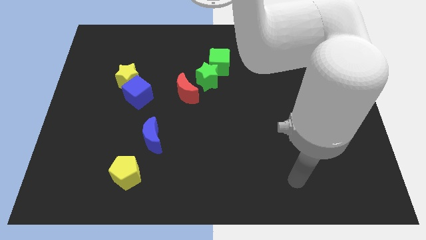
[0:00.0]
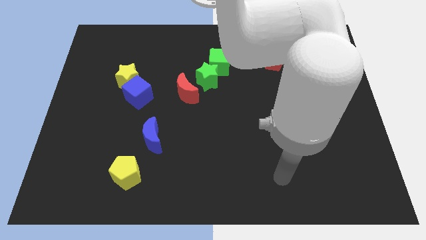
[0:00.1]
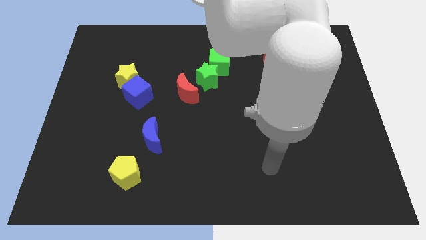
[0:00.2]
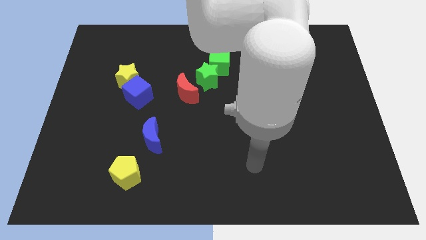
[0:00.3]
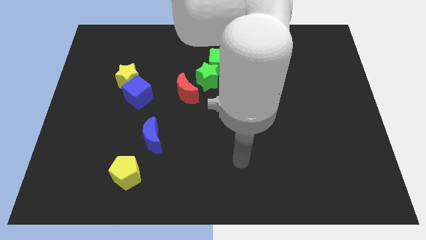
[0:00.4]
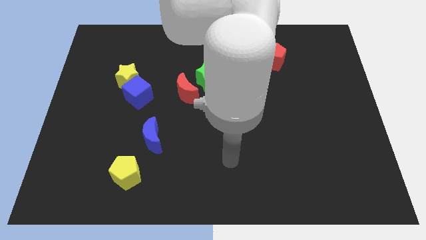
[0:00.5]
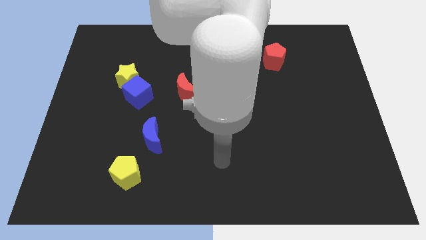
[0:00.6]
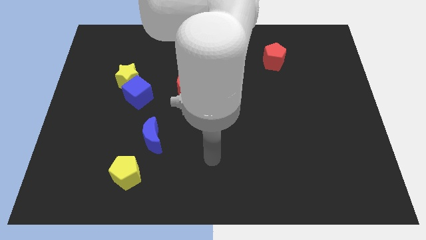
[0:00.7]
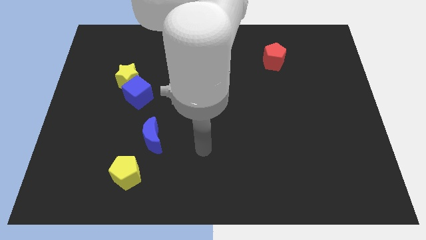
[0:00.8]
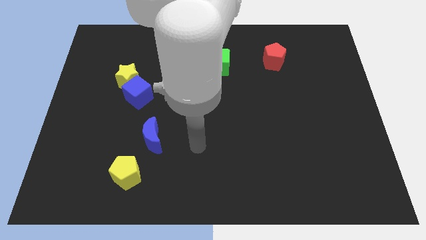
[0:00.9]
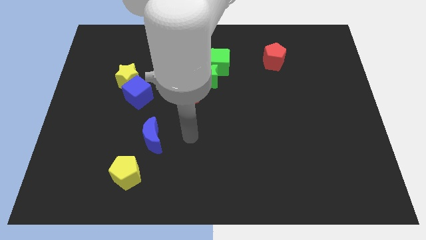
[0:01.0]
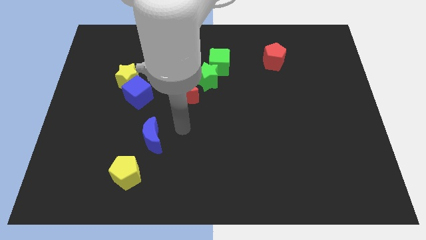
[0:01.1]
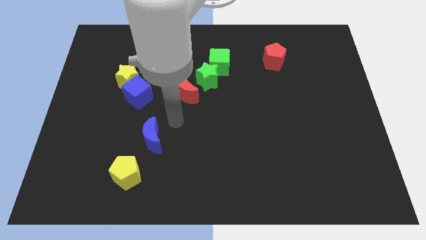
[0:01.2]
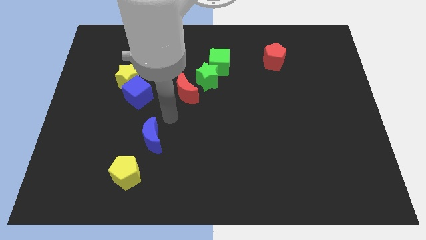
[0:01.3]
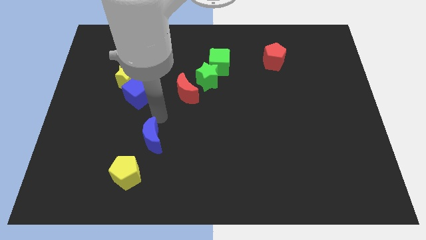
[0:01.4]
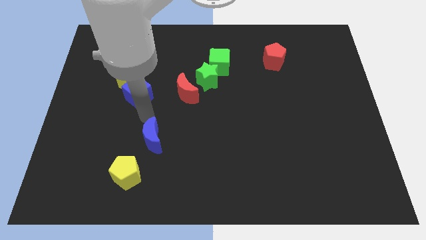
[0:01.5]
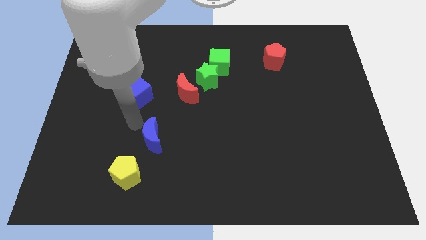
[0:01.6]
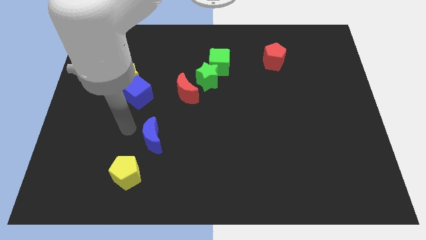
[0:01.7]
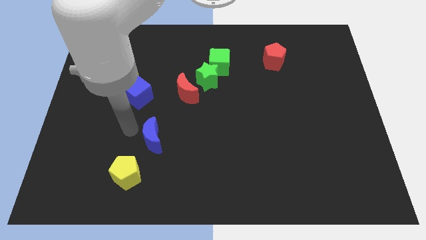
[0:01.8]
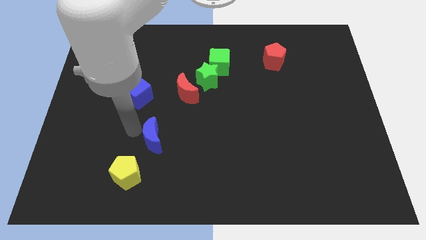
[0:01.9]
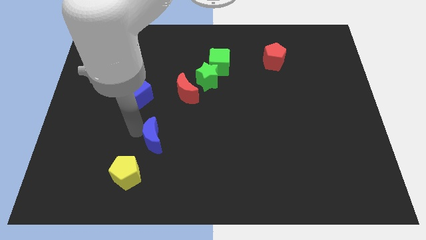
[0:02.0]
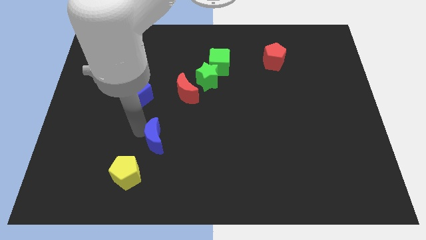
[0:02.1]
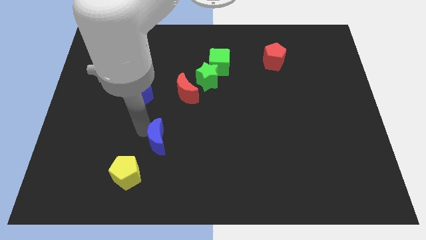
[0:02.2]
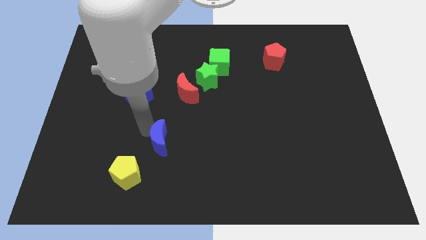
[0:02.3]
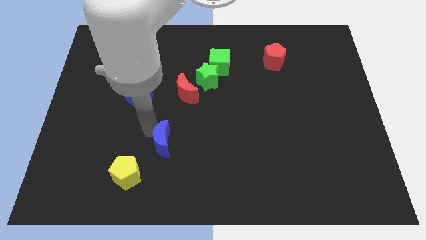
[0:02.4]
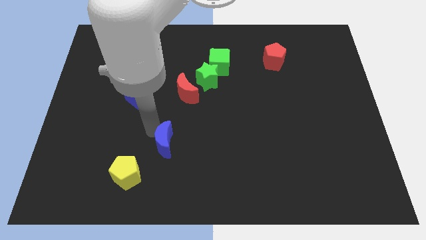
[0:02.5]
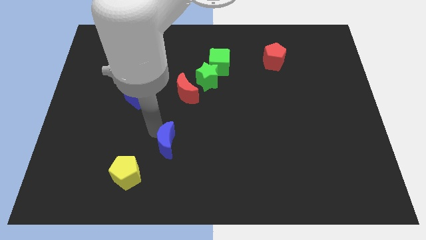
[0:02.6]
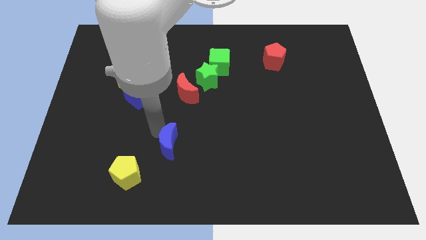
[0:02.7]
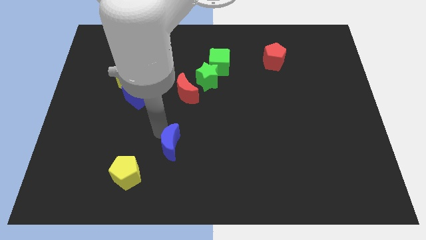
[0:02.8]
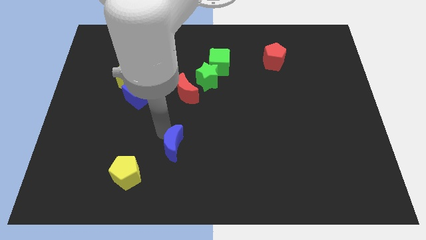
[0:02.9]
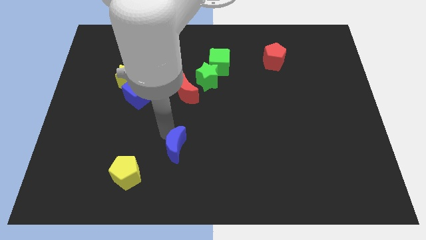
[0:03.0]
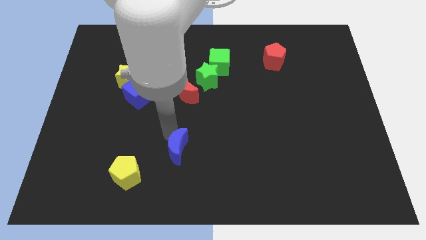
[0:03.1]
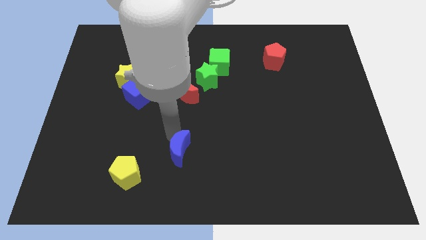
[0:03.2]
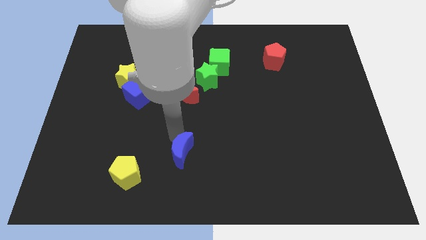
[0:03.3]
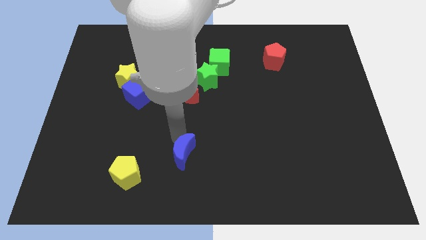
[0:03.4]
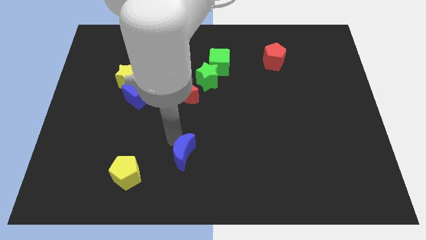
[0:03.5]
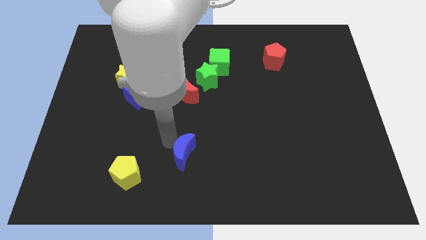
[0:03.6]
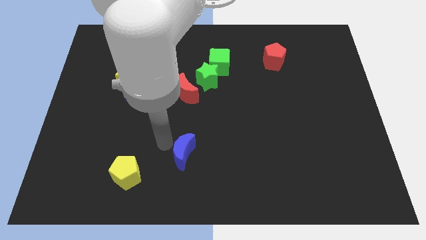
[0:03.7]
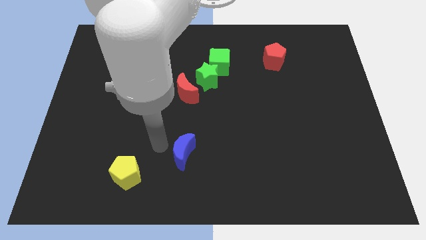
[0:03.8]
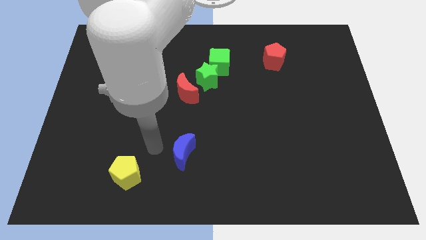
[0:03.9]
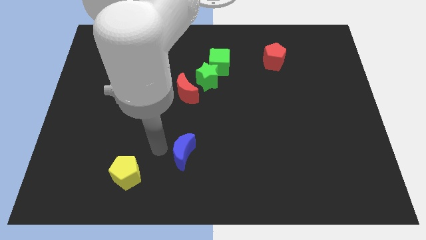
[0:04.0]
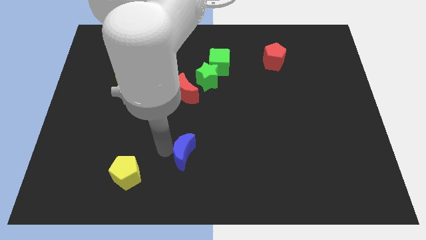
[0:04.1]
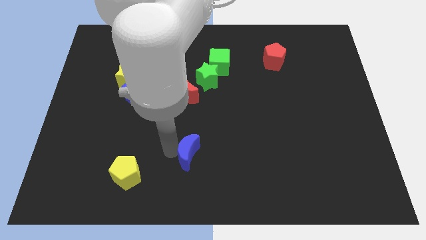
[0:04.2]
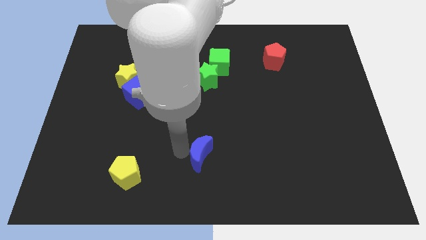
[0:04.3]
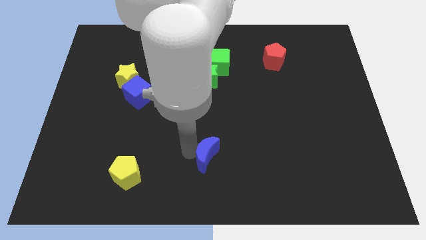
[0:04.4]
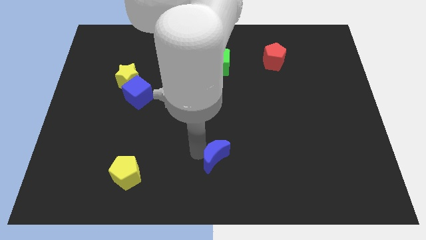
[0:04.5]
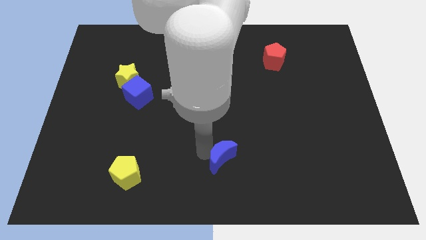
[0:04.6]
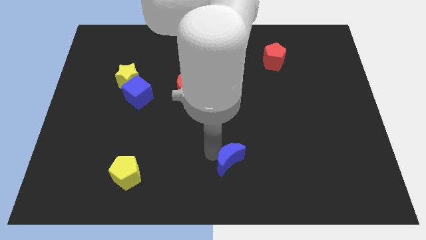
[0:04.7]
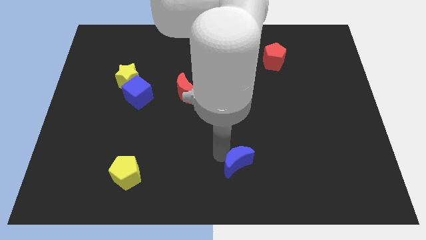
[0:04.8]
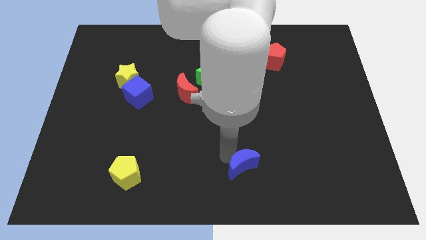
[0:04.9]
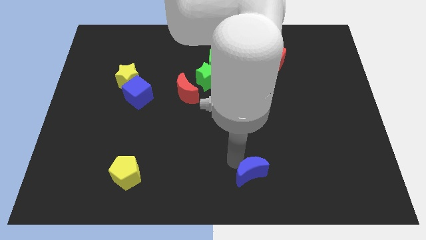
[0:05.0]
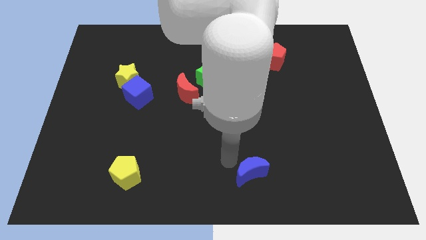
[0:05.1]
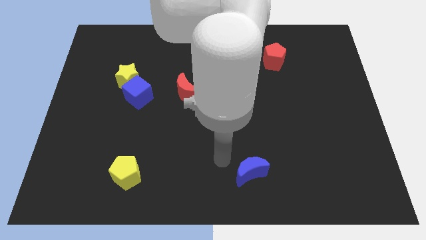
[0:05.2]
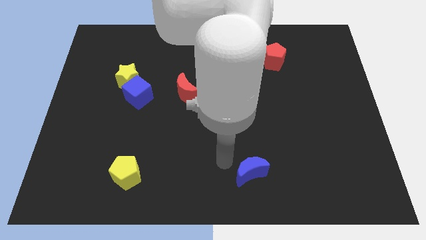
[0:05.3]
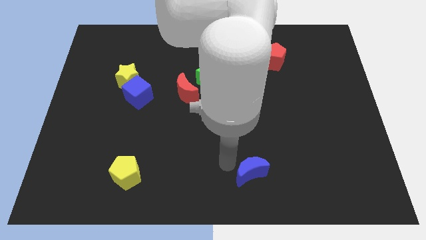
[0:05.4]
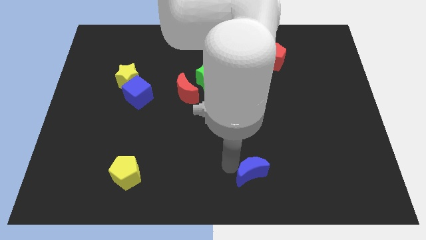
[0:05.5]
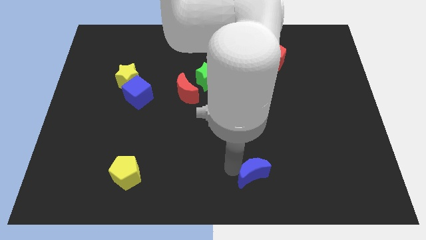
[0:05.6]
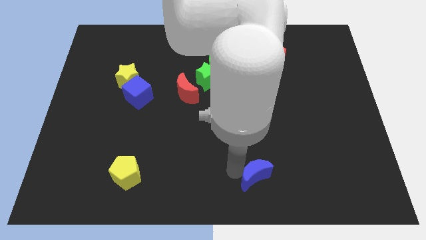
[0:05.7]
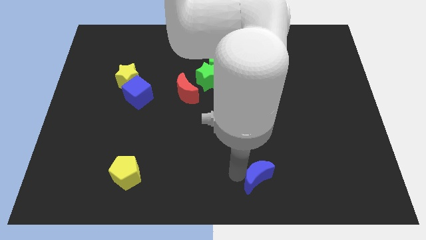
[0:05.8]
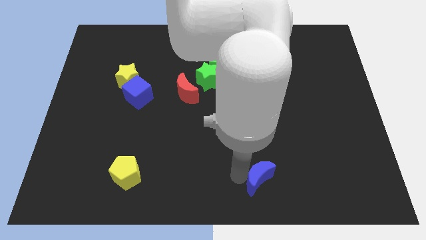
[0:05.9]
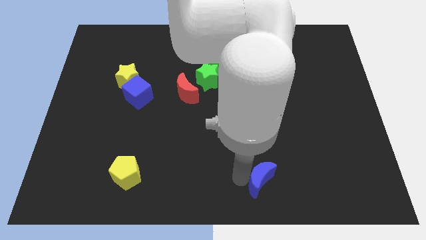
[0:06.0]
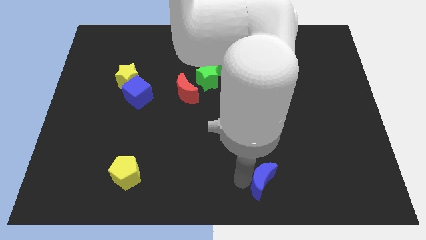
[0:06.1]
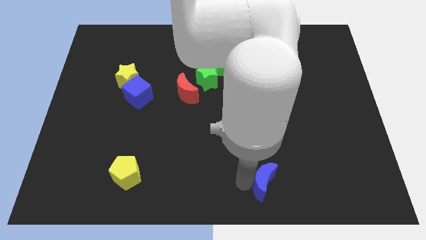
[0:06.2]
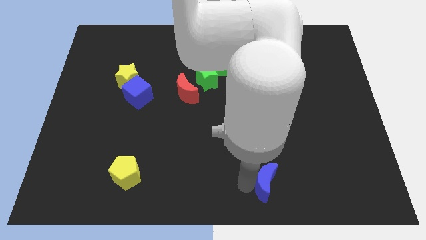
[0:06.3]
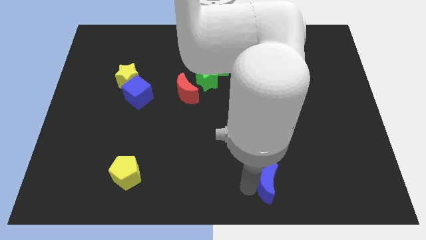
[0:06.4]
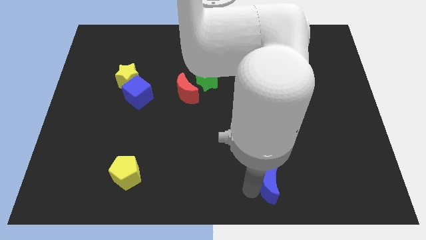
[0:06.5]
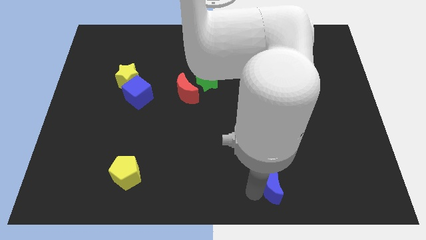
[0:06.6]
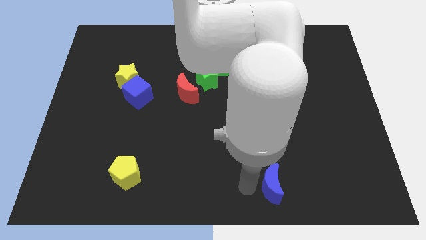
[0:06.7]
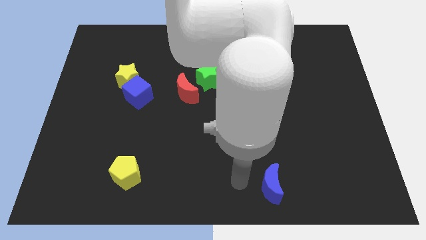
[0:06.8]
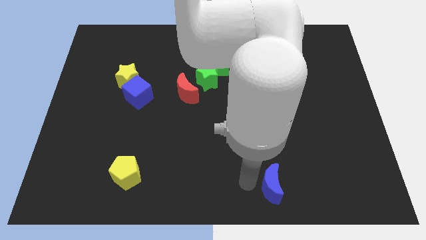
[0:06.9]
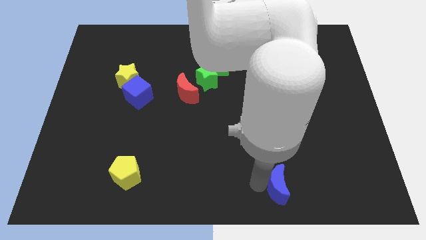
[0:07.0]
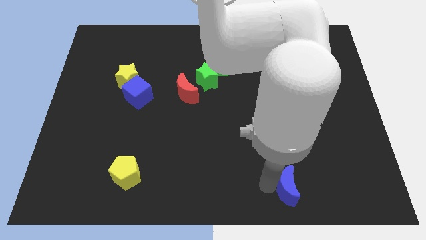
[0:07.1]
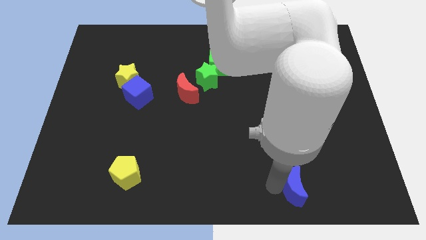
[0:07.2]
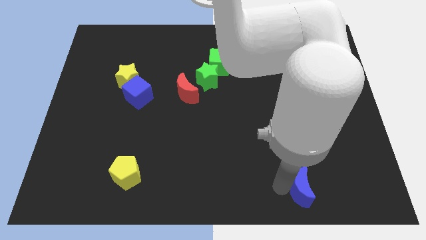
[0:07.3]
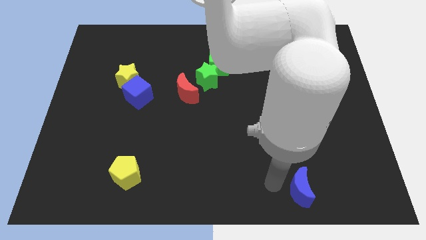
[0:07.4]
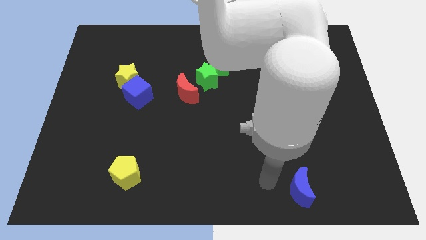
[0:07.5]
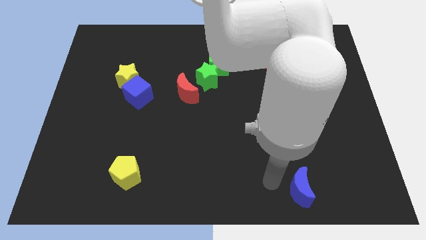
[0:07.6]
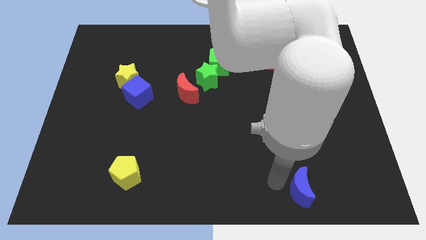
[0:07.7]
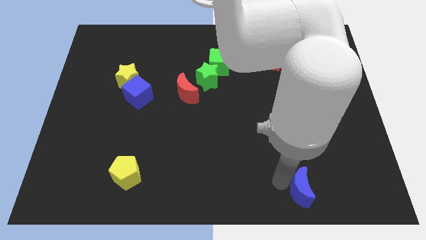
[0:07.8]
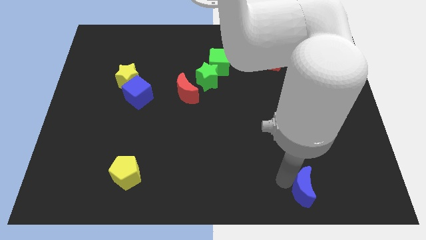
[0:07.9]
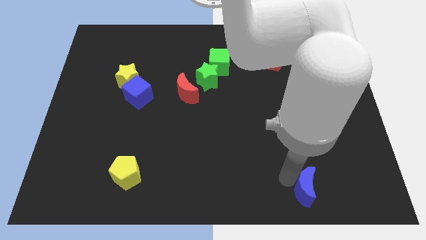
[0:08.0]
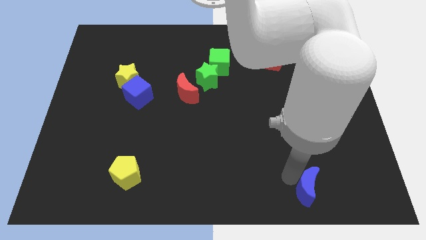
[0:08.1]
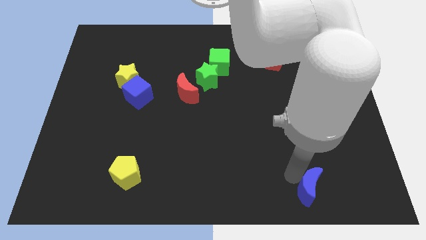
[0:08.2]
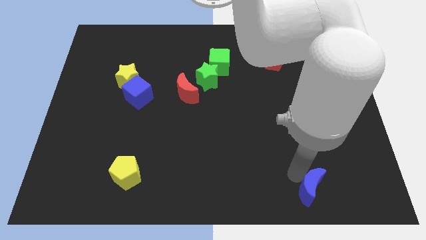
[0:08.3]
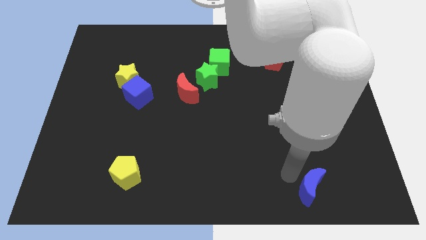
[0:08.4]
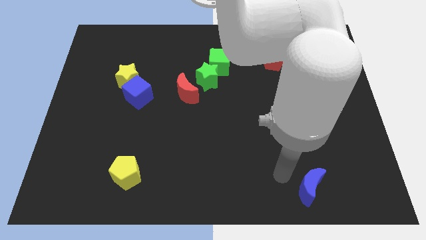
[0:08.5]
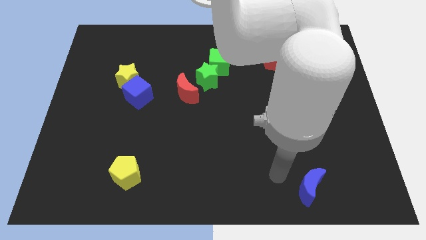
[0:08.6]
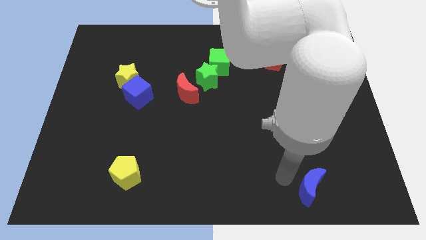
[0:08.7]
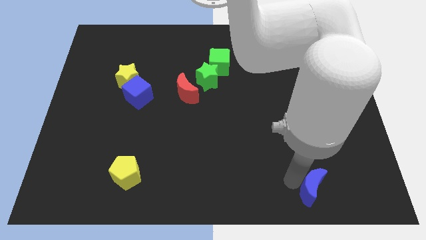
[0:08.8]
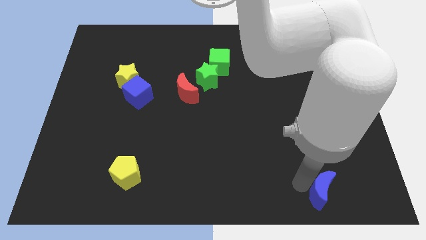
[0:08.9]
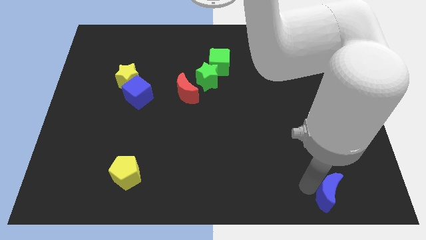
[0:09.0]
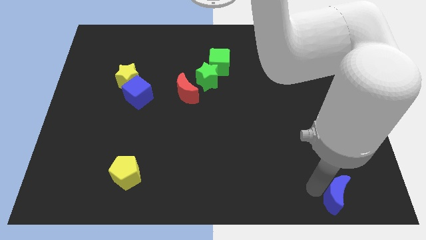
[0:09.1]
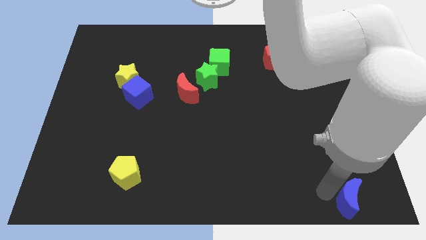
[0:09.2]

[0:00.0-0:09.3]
put the blue moon to the lower right corner
